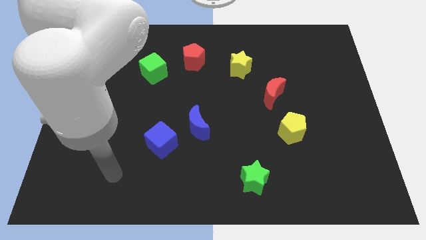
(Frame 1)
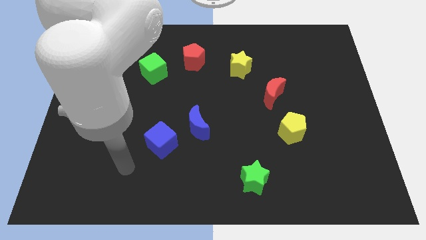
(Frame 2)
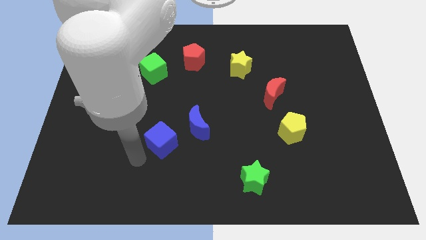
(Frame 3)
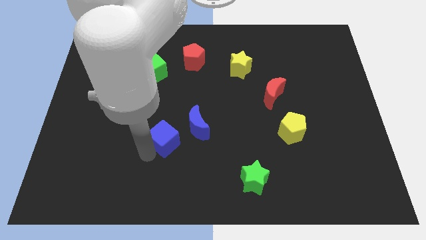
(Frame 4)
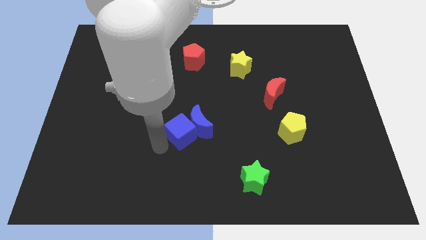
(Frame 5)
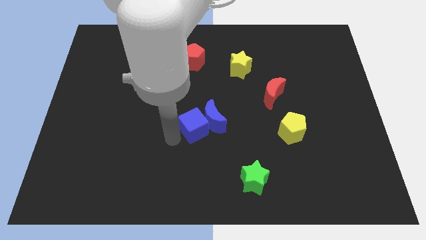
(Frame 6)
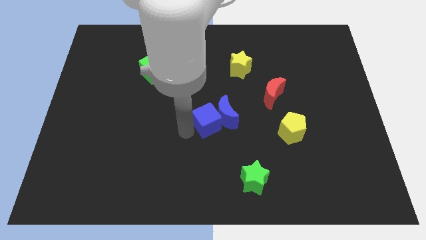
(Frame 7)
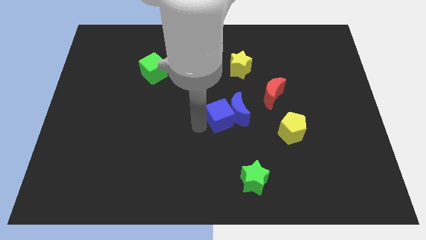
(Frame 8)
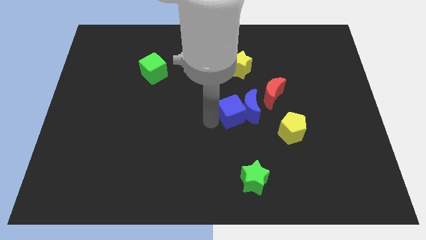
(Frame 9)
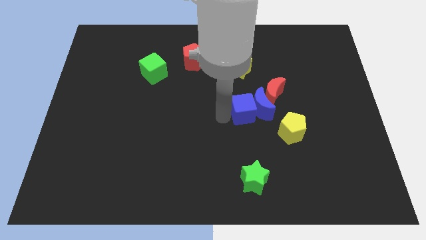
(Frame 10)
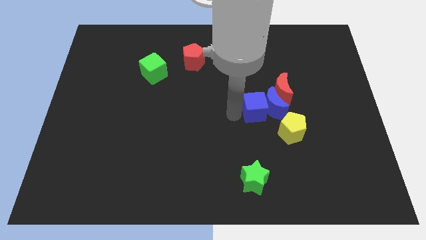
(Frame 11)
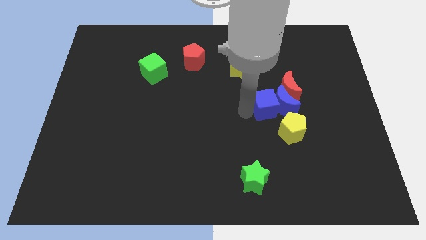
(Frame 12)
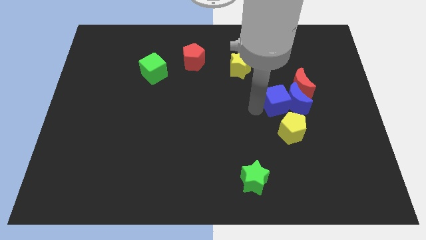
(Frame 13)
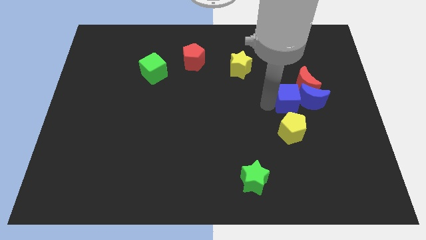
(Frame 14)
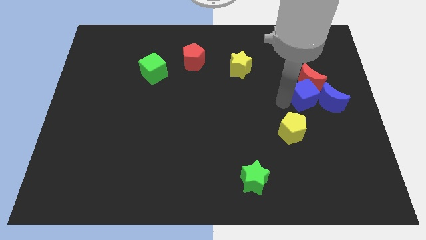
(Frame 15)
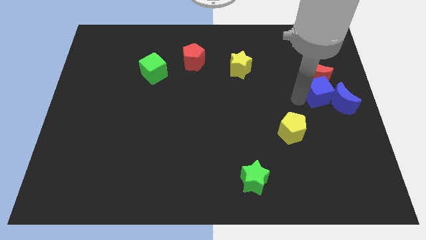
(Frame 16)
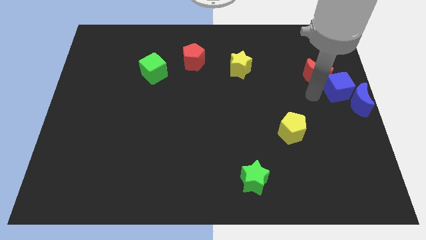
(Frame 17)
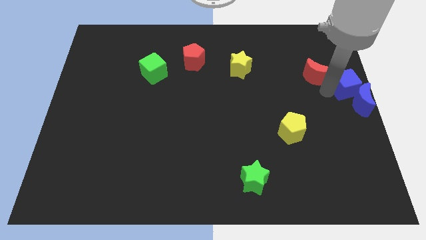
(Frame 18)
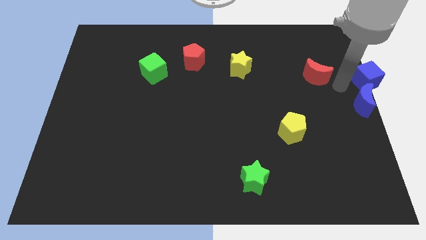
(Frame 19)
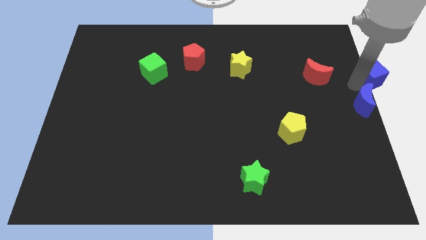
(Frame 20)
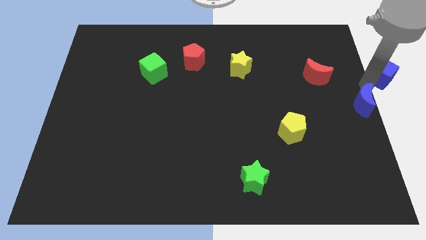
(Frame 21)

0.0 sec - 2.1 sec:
move the blue moon away from the blue cube

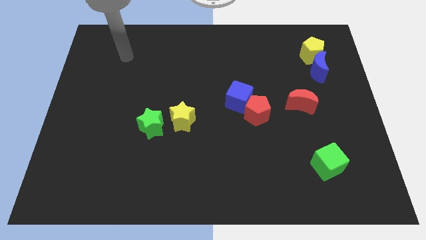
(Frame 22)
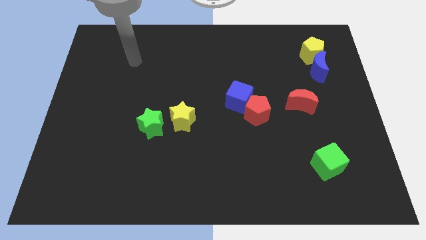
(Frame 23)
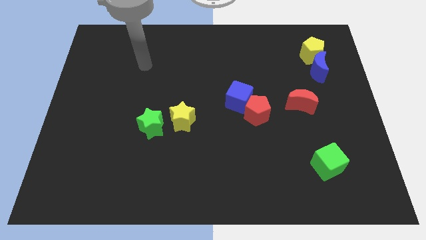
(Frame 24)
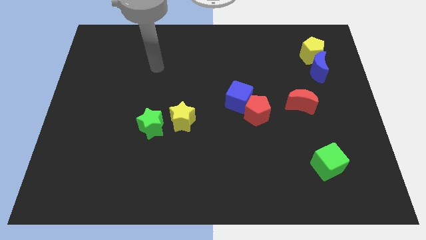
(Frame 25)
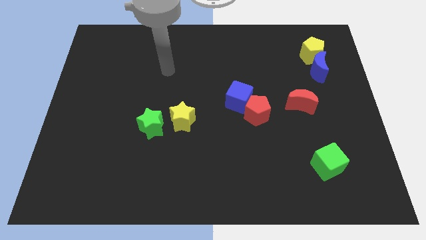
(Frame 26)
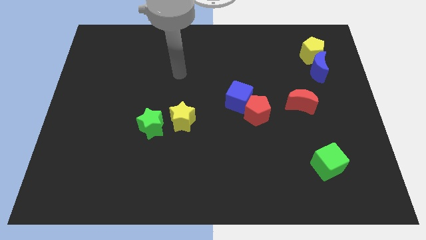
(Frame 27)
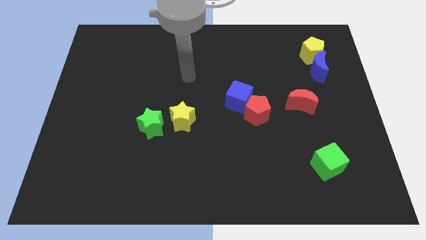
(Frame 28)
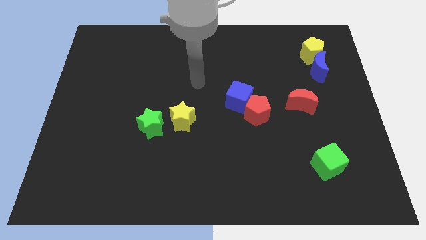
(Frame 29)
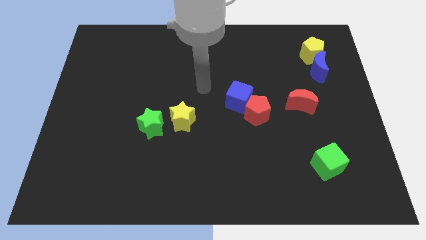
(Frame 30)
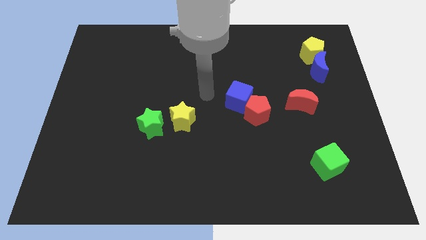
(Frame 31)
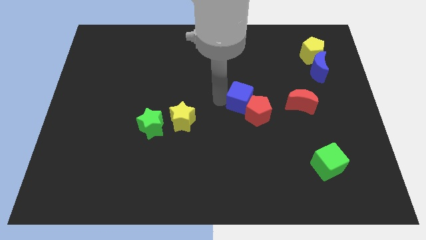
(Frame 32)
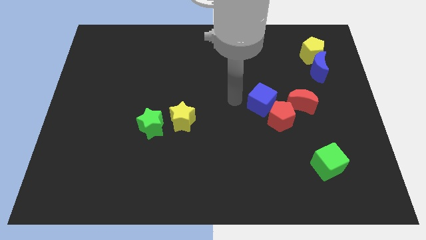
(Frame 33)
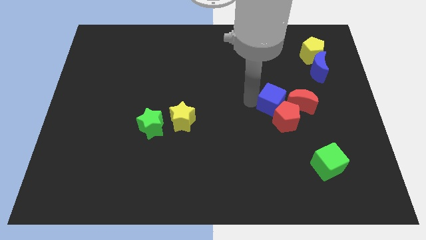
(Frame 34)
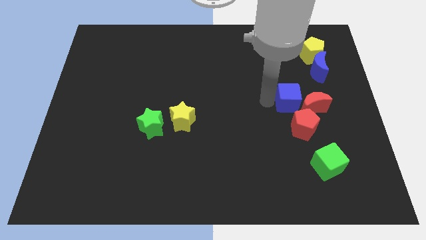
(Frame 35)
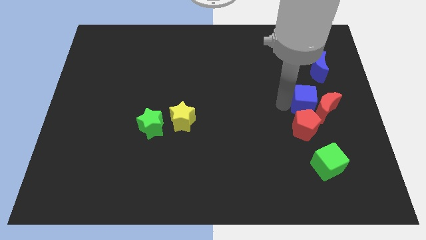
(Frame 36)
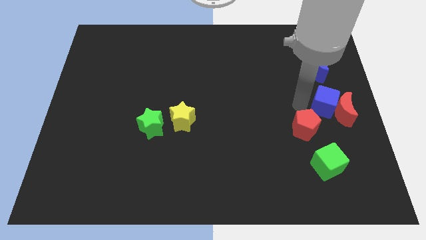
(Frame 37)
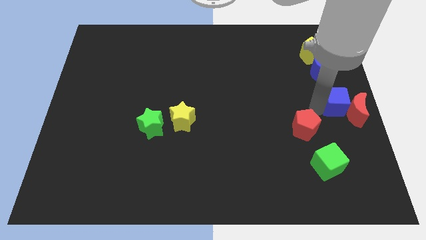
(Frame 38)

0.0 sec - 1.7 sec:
separate the red pentagon from the blue cube

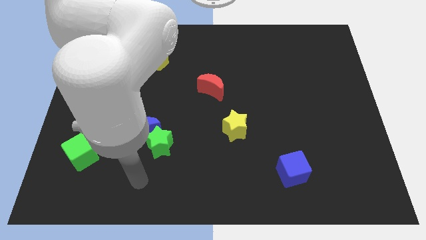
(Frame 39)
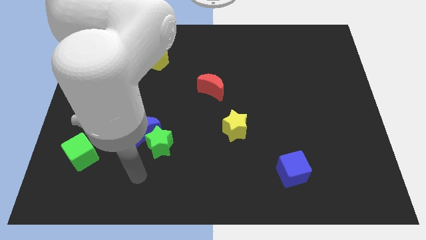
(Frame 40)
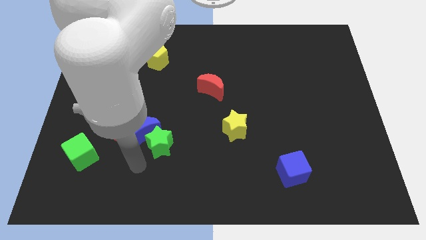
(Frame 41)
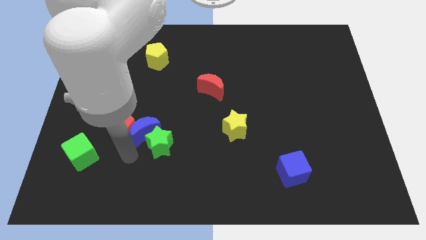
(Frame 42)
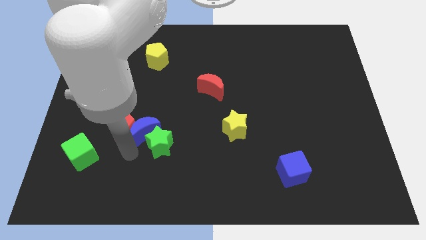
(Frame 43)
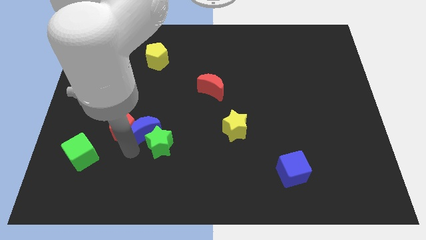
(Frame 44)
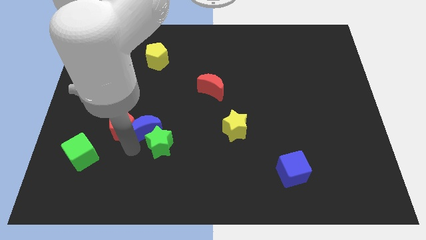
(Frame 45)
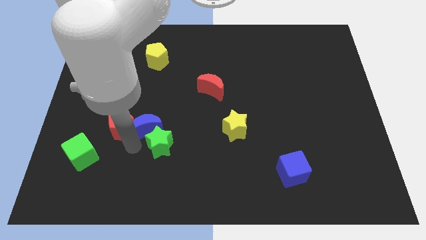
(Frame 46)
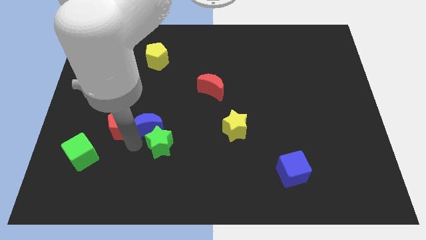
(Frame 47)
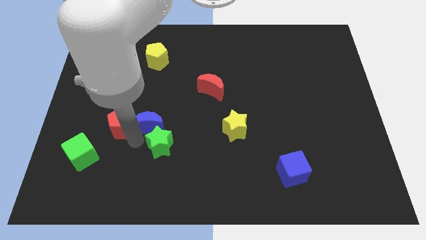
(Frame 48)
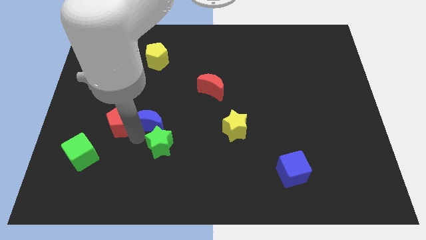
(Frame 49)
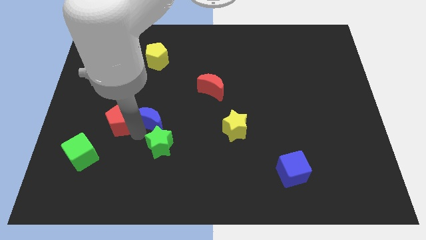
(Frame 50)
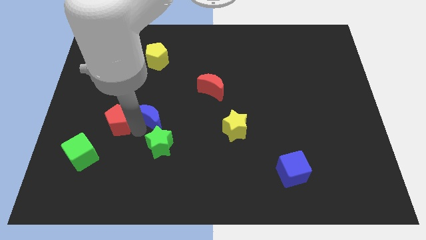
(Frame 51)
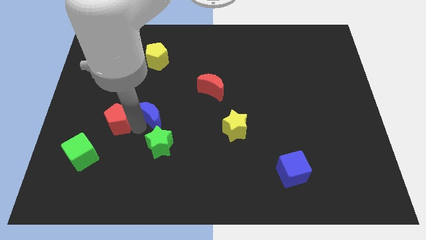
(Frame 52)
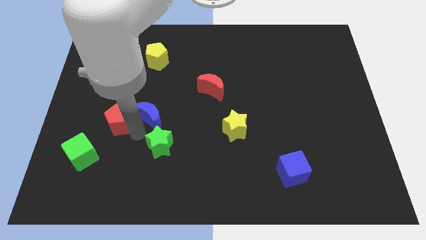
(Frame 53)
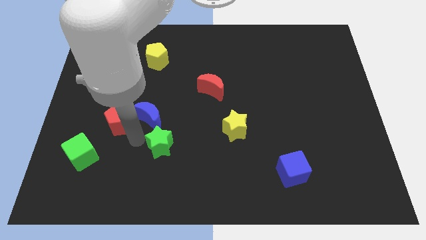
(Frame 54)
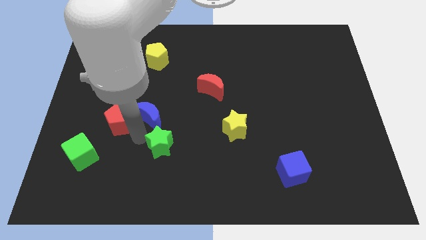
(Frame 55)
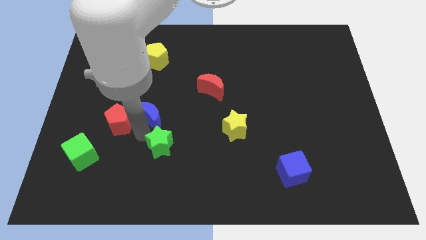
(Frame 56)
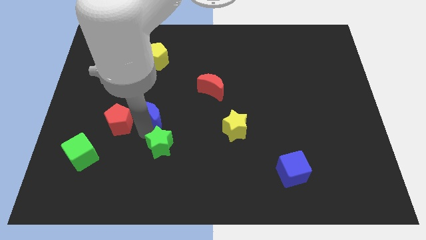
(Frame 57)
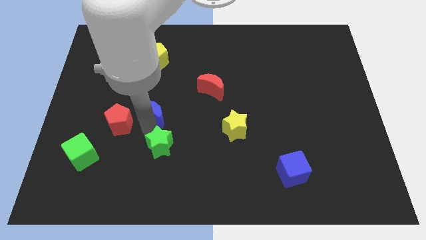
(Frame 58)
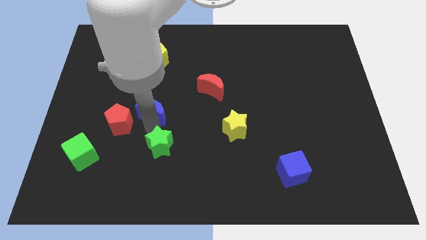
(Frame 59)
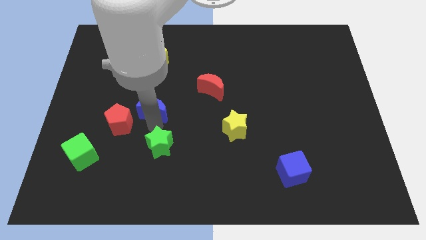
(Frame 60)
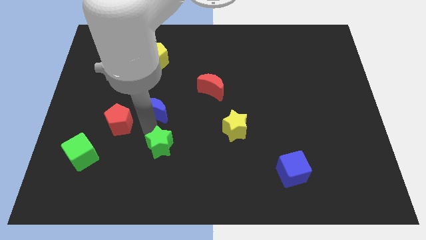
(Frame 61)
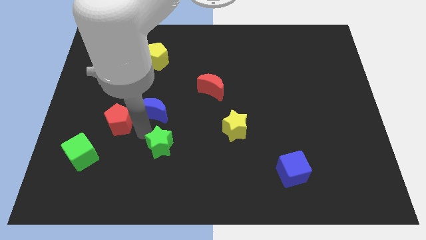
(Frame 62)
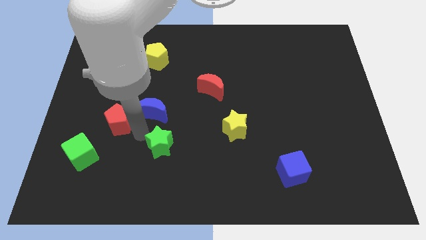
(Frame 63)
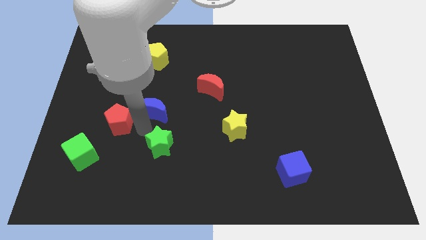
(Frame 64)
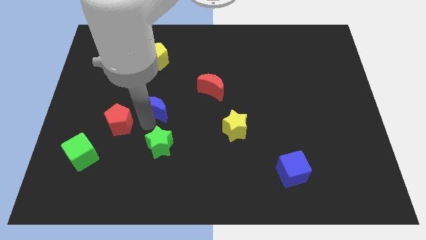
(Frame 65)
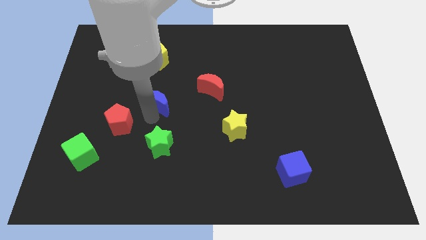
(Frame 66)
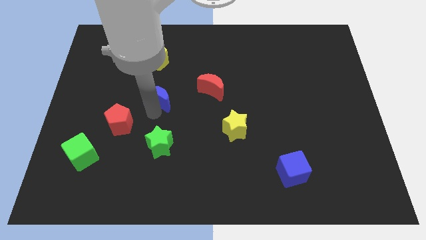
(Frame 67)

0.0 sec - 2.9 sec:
pull the blue moon apart from the red pentagon and green star

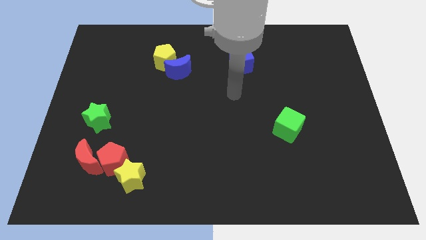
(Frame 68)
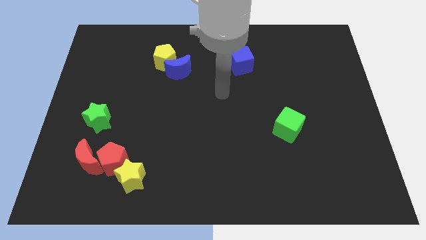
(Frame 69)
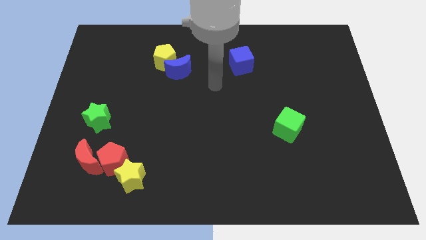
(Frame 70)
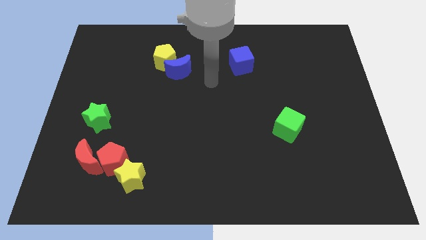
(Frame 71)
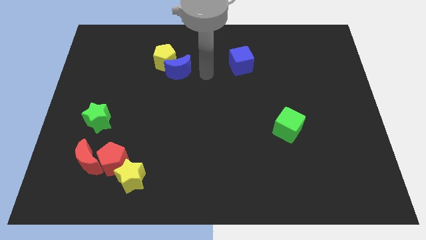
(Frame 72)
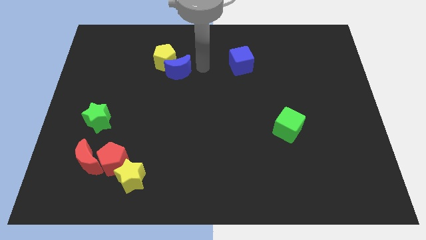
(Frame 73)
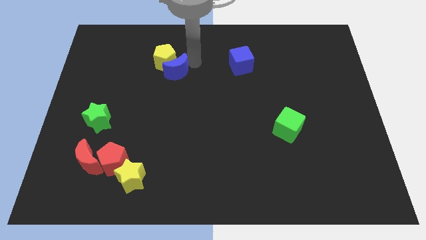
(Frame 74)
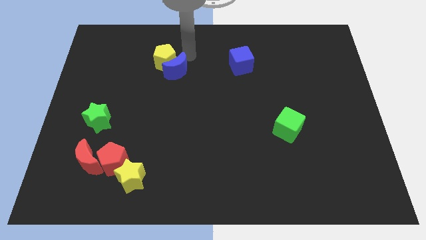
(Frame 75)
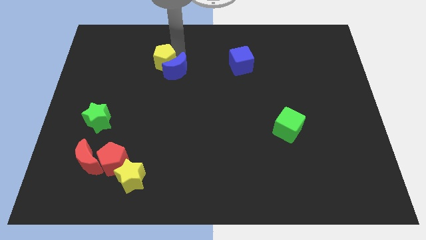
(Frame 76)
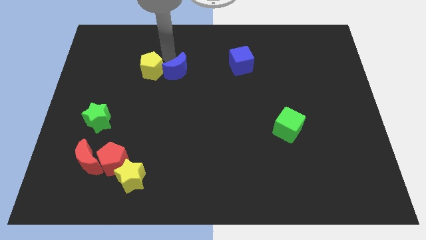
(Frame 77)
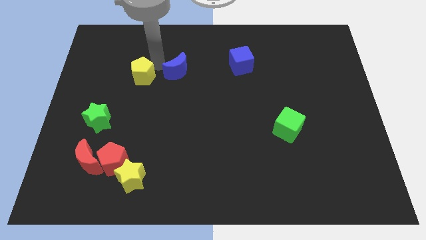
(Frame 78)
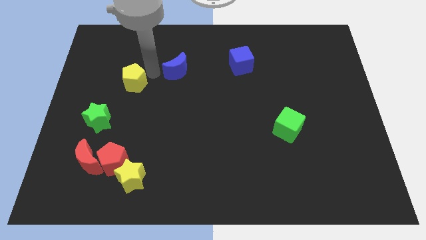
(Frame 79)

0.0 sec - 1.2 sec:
separate the blue moon from the yellow pentagon

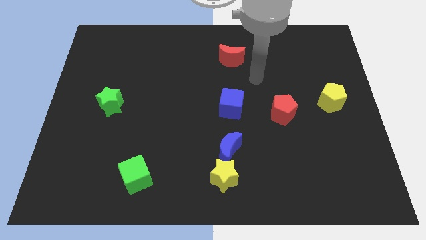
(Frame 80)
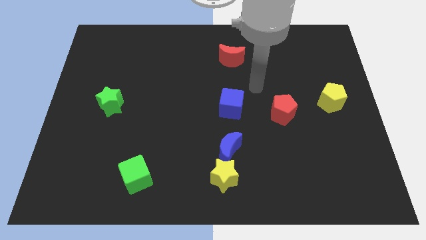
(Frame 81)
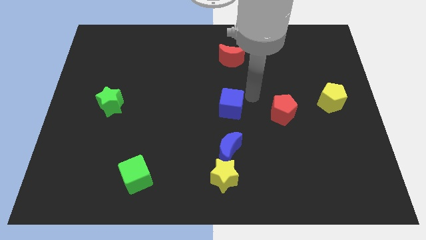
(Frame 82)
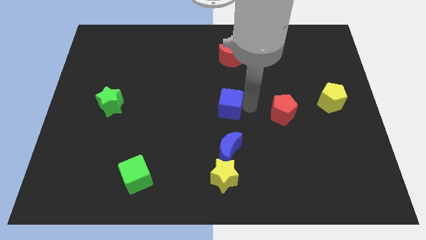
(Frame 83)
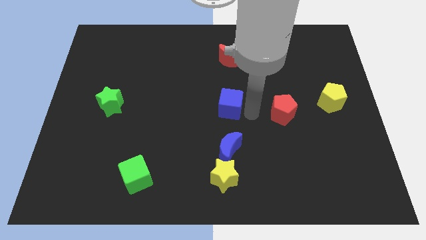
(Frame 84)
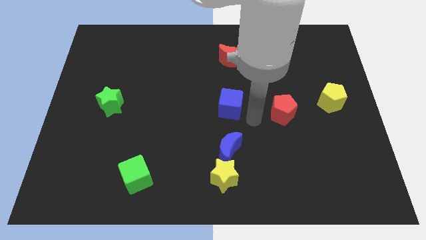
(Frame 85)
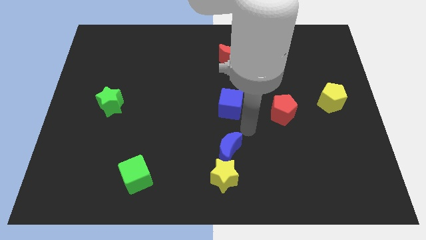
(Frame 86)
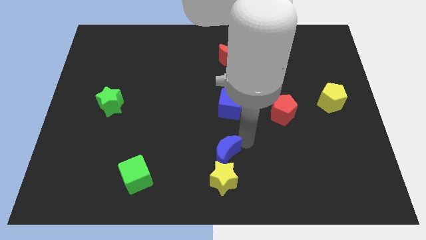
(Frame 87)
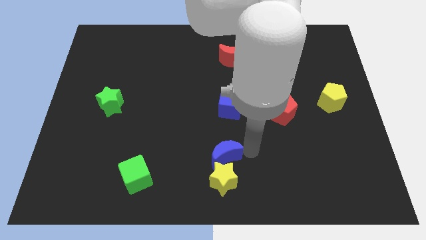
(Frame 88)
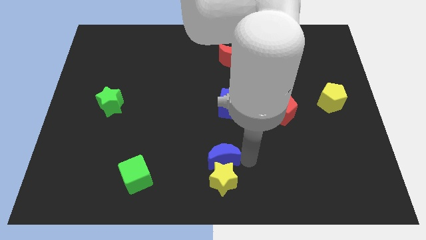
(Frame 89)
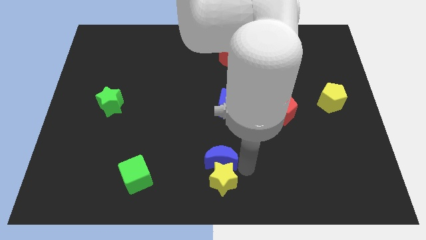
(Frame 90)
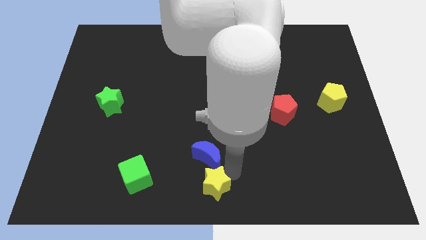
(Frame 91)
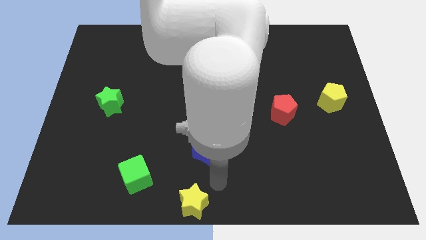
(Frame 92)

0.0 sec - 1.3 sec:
pull the blue moon apart from the yellow star
